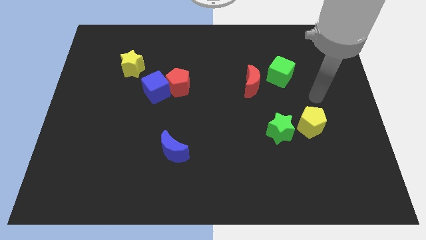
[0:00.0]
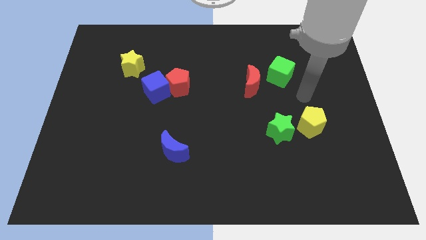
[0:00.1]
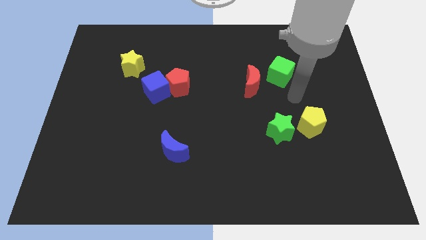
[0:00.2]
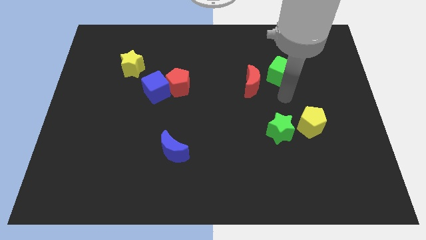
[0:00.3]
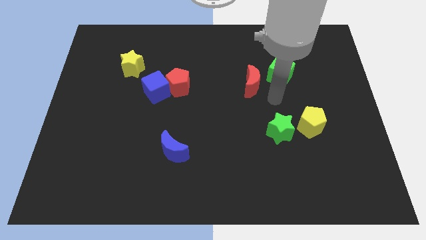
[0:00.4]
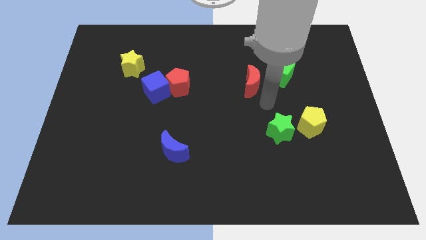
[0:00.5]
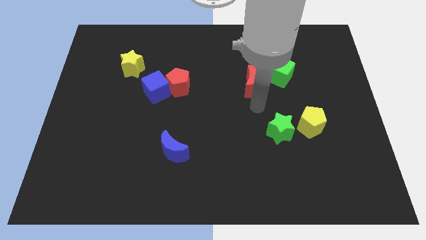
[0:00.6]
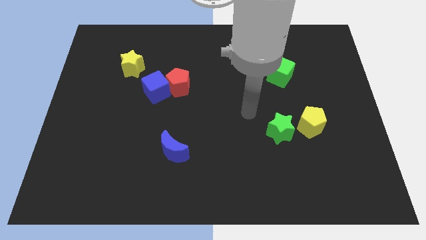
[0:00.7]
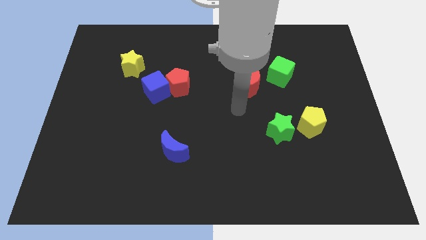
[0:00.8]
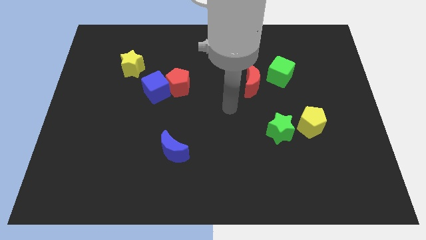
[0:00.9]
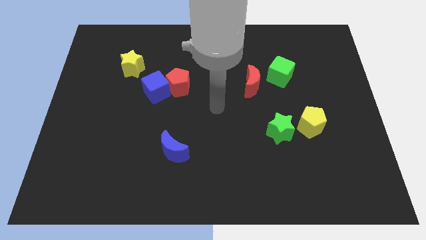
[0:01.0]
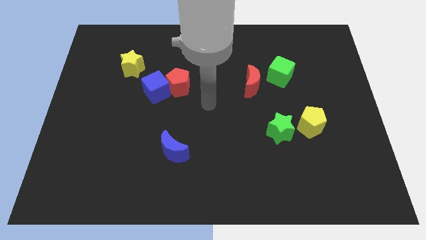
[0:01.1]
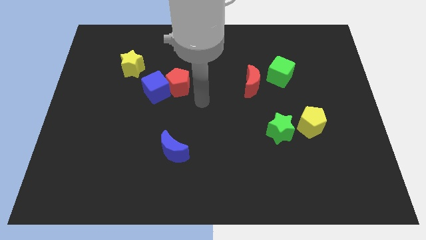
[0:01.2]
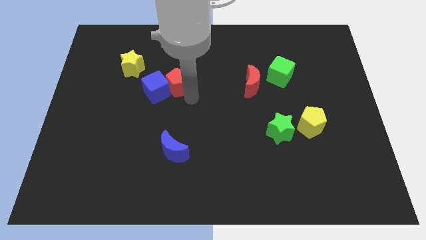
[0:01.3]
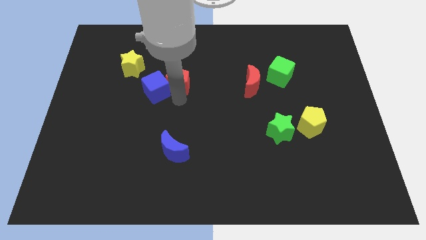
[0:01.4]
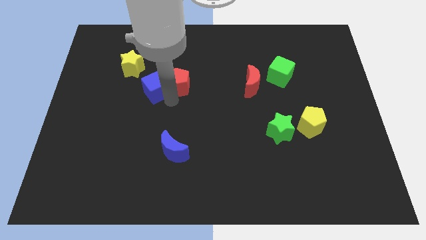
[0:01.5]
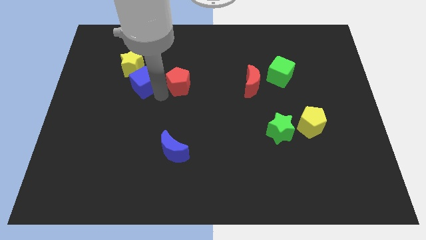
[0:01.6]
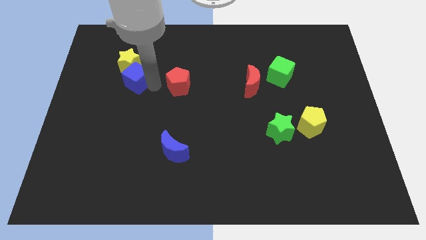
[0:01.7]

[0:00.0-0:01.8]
pull the red pentagon apart from the blue cube

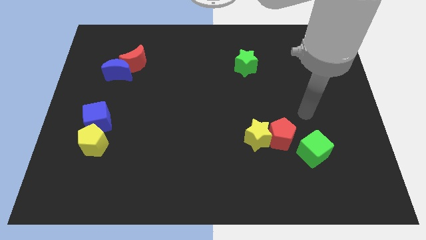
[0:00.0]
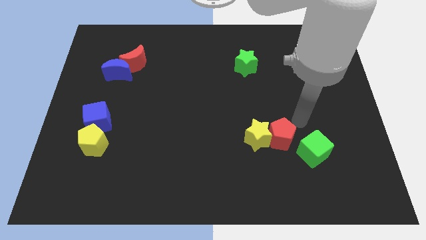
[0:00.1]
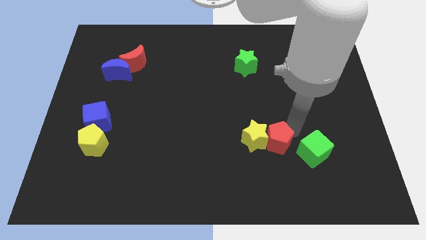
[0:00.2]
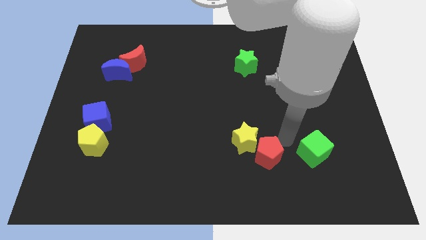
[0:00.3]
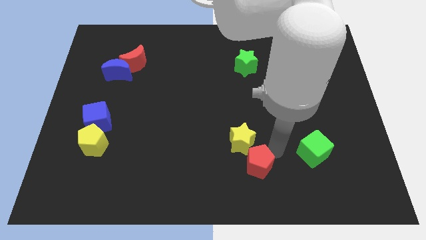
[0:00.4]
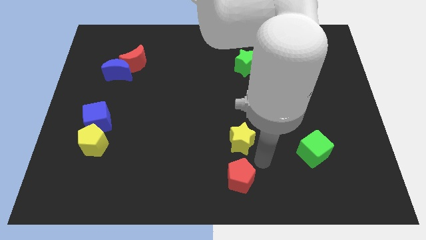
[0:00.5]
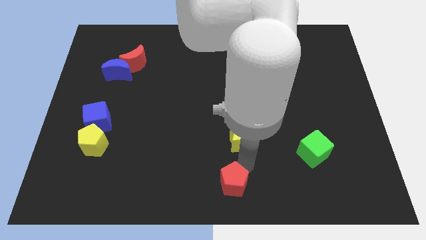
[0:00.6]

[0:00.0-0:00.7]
move the yellow star away from the red pentagon

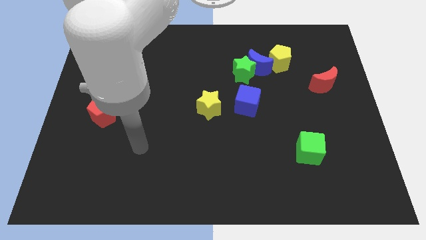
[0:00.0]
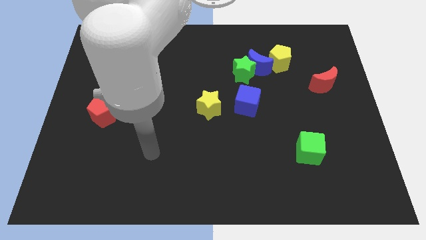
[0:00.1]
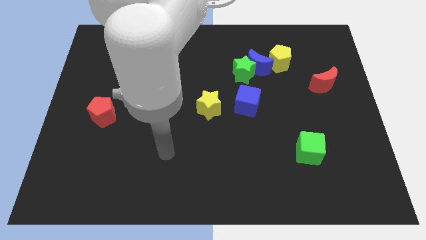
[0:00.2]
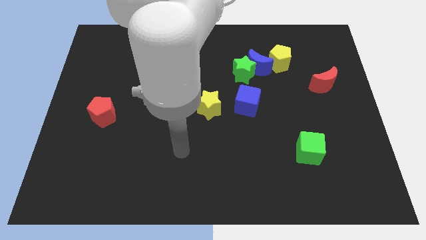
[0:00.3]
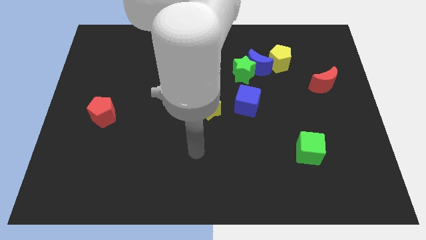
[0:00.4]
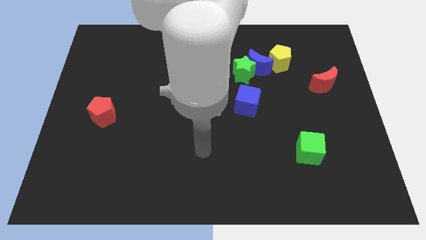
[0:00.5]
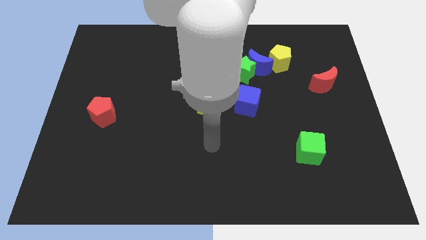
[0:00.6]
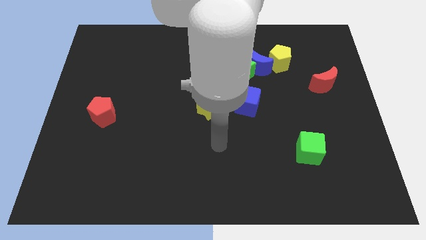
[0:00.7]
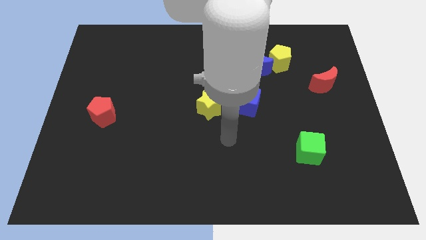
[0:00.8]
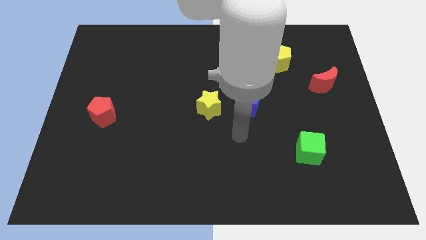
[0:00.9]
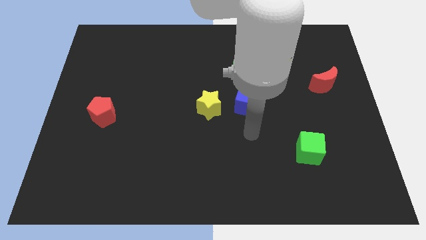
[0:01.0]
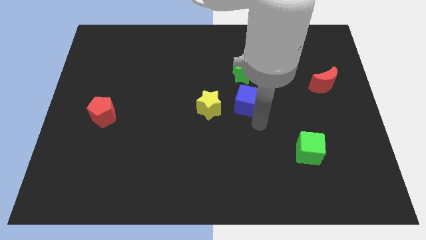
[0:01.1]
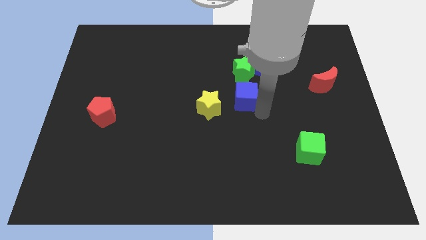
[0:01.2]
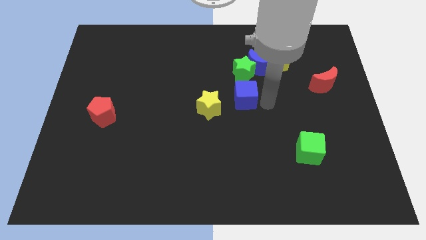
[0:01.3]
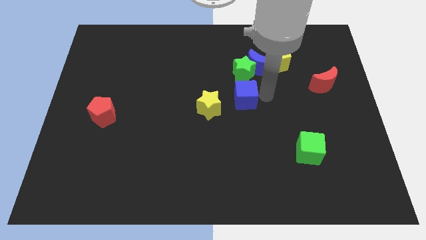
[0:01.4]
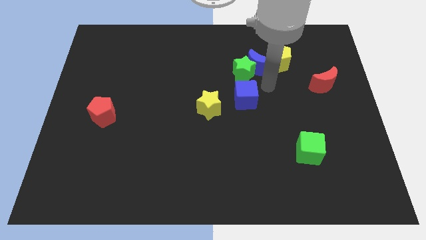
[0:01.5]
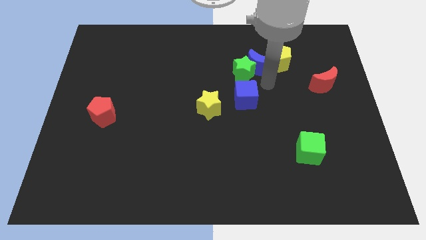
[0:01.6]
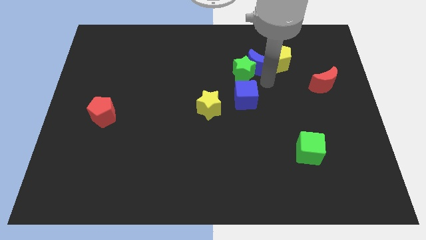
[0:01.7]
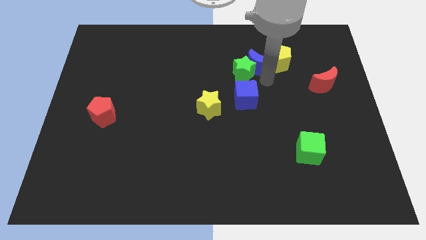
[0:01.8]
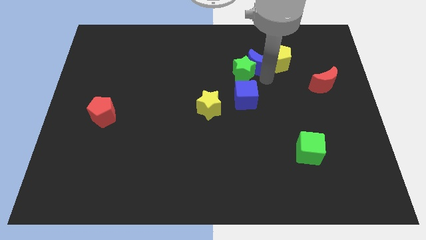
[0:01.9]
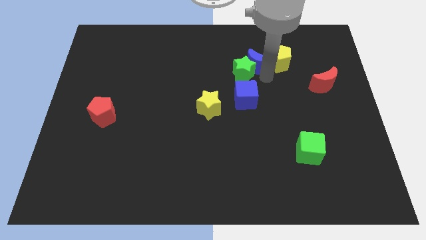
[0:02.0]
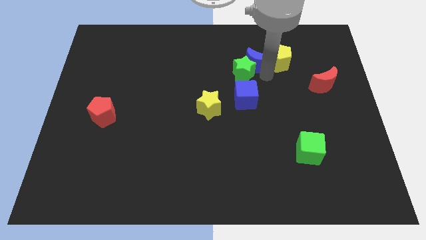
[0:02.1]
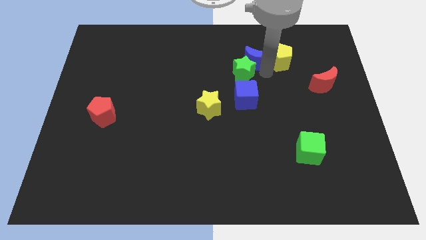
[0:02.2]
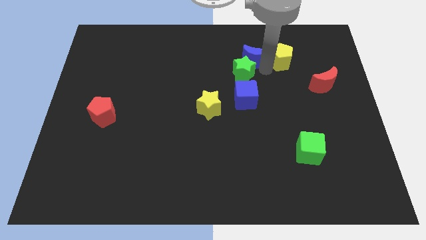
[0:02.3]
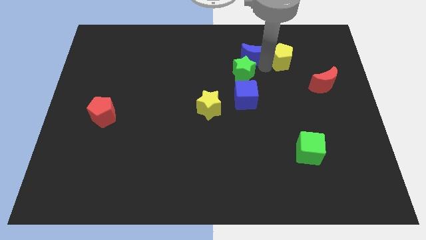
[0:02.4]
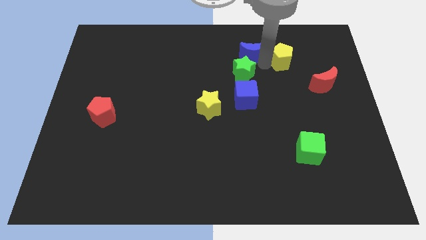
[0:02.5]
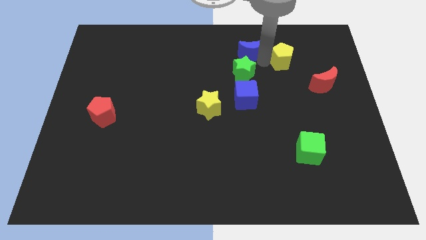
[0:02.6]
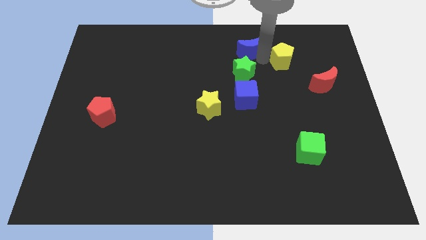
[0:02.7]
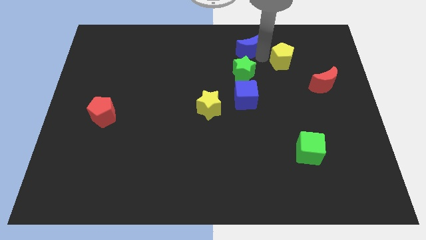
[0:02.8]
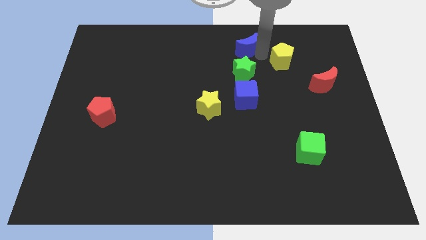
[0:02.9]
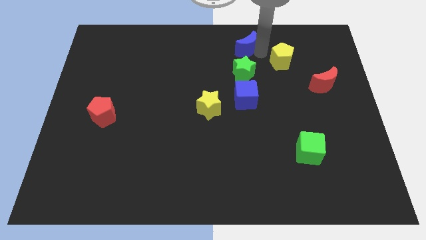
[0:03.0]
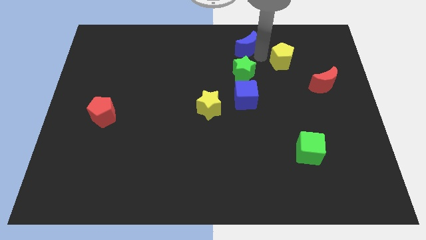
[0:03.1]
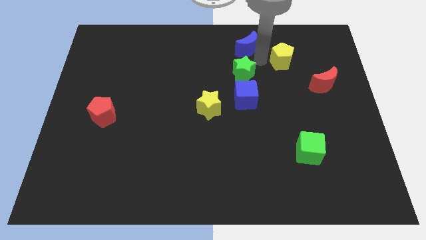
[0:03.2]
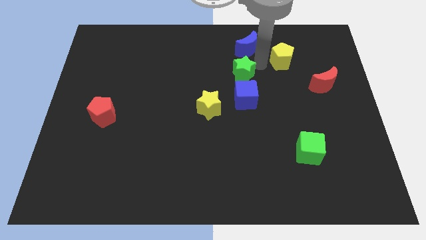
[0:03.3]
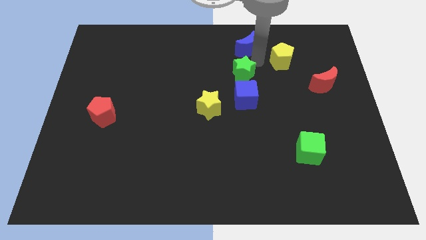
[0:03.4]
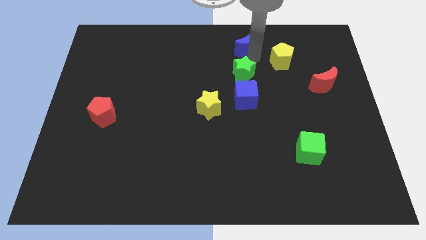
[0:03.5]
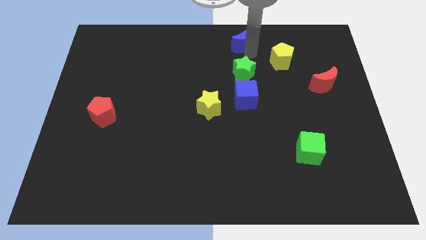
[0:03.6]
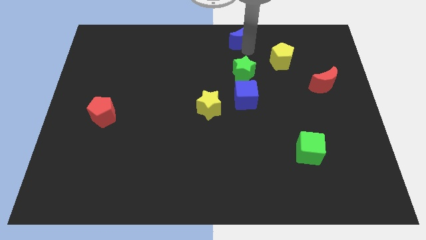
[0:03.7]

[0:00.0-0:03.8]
pull the blue moon apart from the green star and yellow pentagon

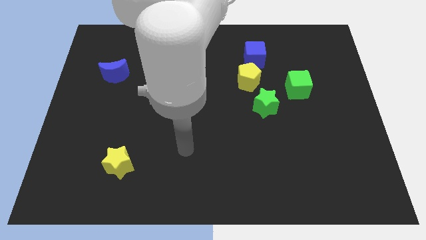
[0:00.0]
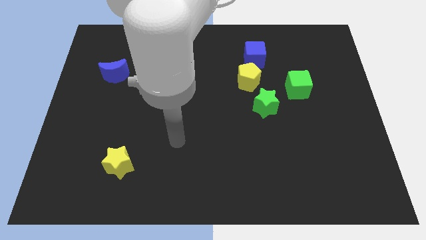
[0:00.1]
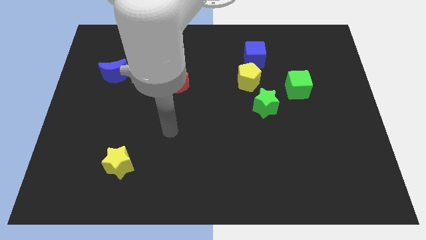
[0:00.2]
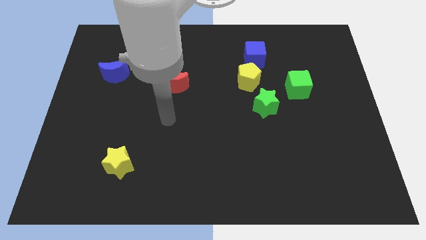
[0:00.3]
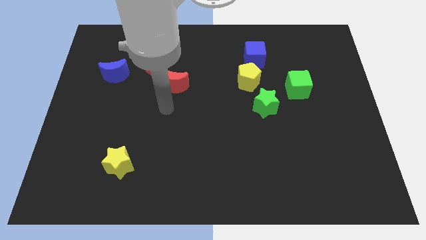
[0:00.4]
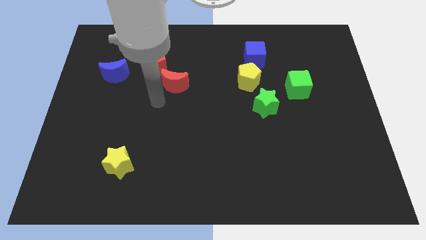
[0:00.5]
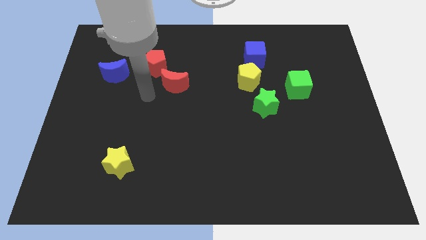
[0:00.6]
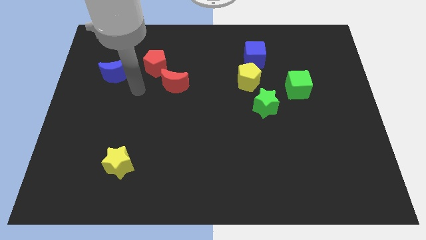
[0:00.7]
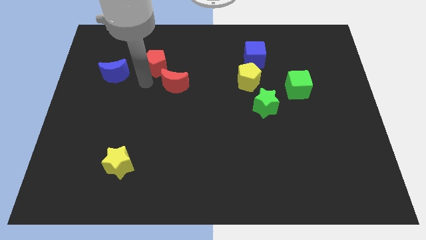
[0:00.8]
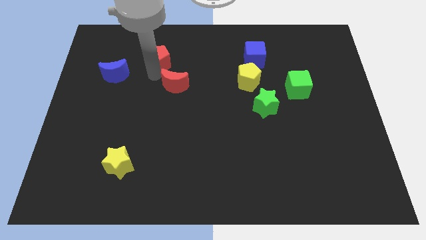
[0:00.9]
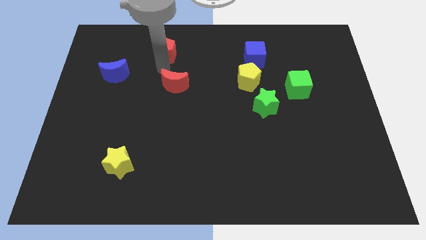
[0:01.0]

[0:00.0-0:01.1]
move the red moon away from the red pentagon

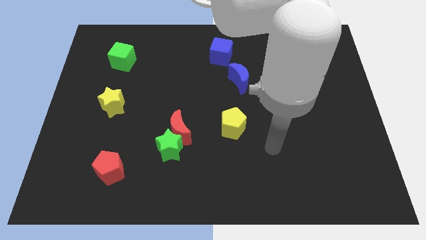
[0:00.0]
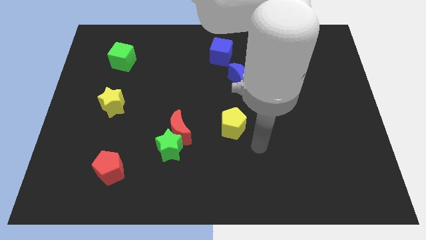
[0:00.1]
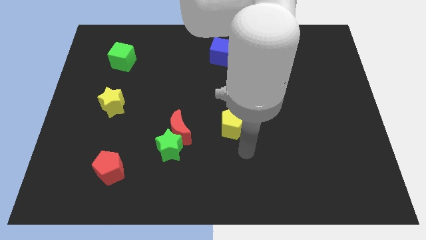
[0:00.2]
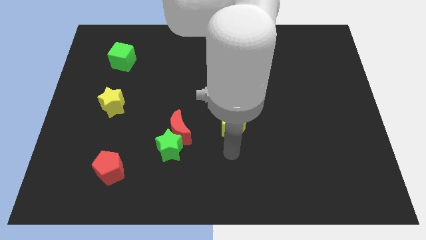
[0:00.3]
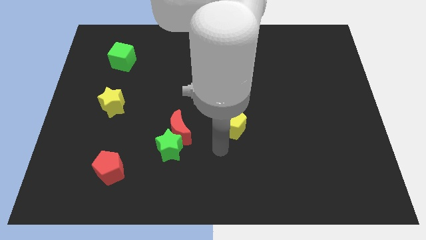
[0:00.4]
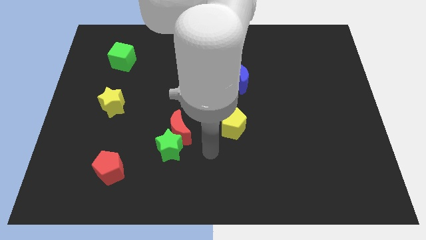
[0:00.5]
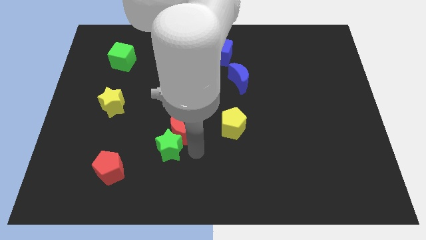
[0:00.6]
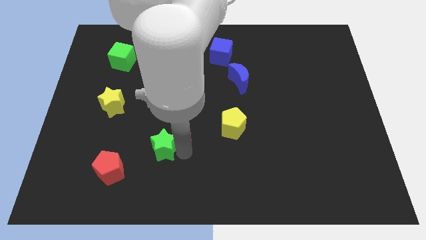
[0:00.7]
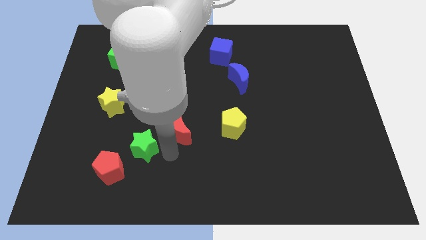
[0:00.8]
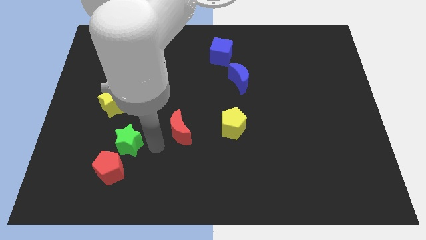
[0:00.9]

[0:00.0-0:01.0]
move the red moon away from the green star

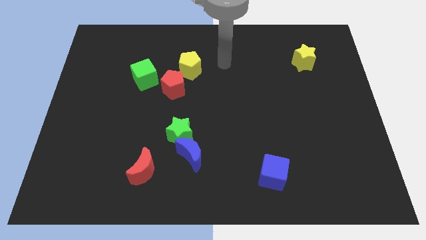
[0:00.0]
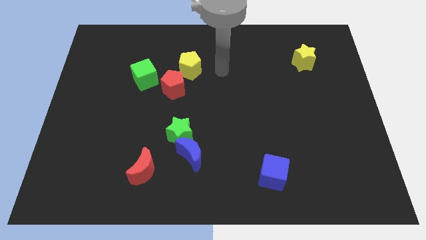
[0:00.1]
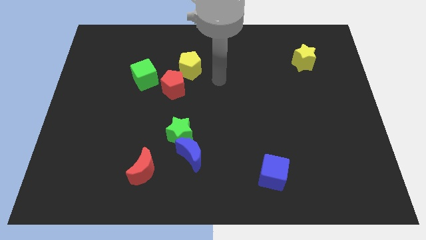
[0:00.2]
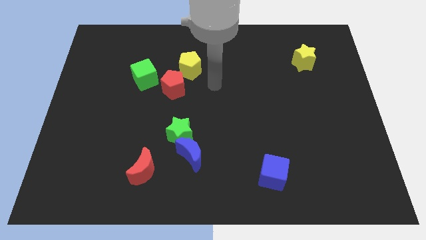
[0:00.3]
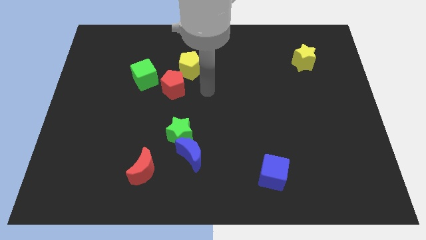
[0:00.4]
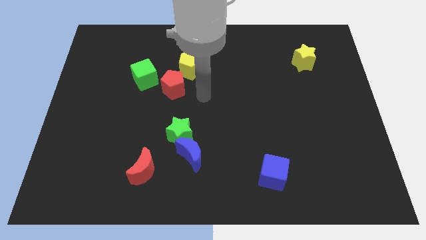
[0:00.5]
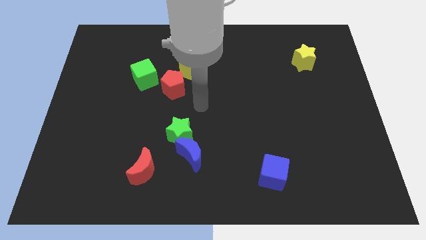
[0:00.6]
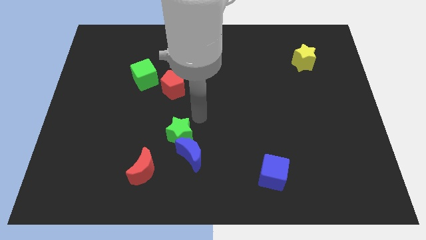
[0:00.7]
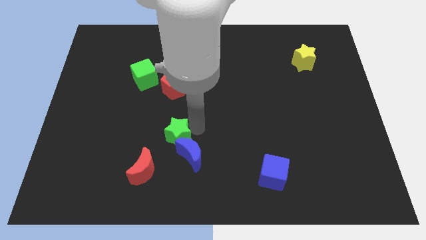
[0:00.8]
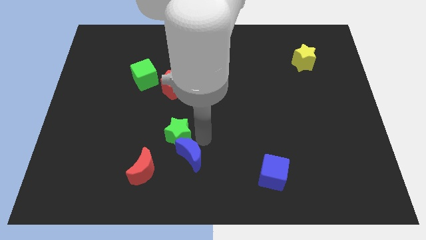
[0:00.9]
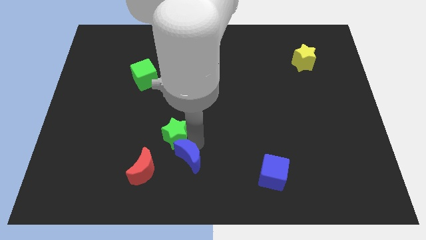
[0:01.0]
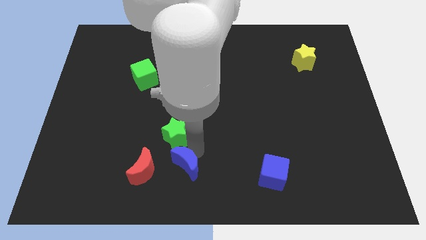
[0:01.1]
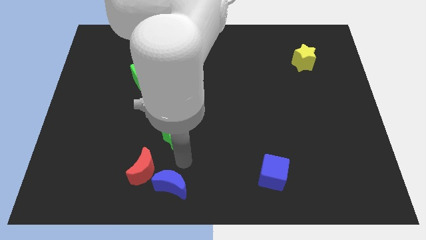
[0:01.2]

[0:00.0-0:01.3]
move the green star away from the blue moon
